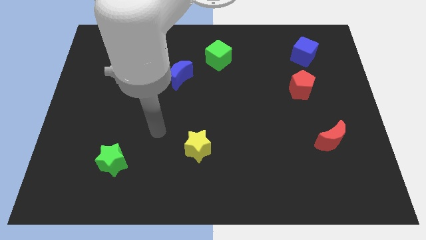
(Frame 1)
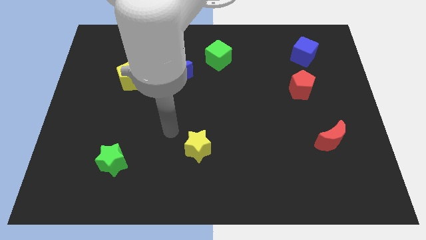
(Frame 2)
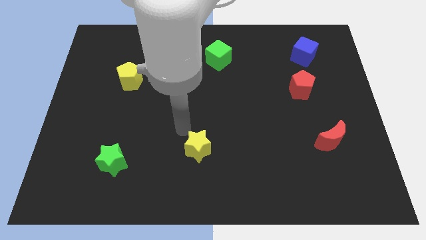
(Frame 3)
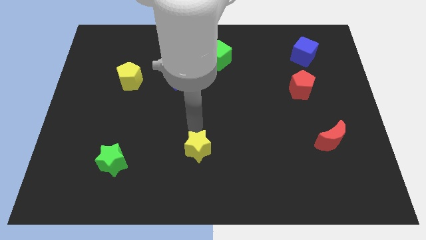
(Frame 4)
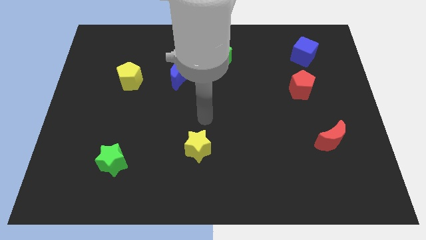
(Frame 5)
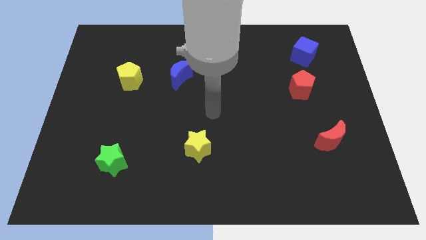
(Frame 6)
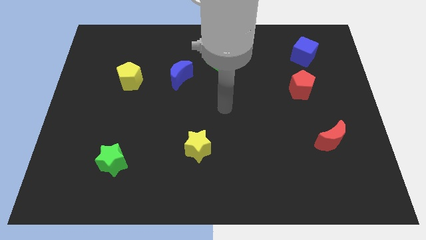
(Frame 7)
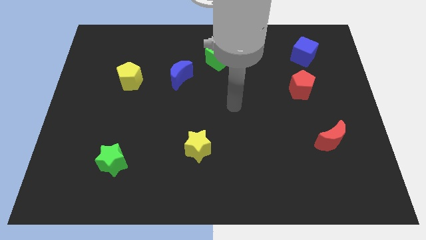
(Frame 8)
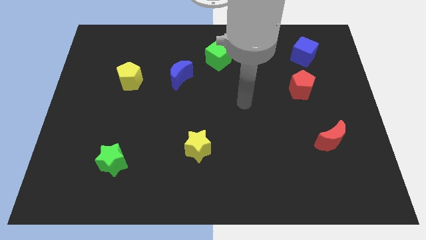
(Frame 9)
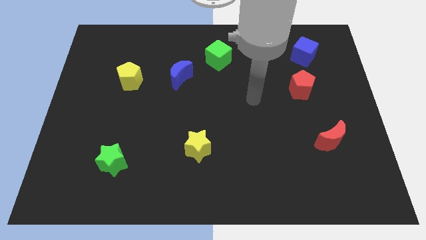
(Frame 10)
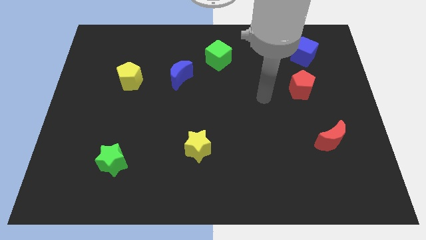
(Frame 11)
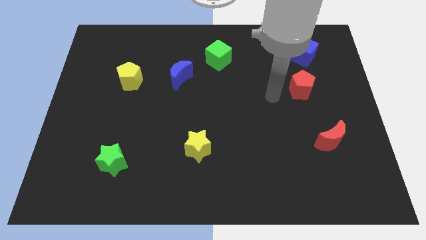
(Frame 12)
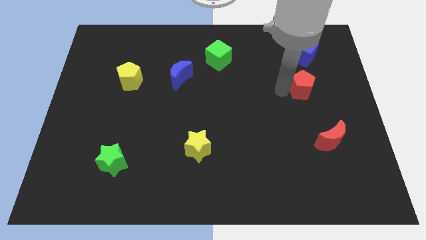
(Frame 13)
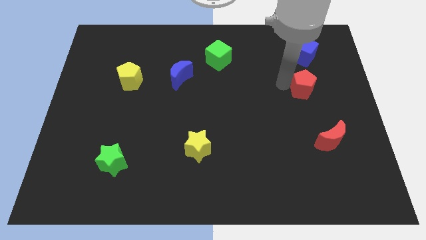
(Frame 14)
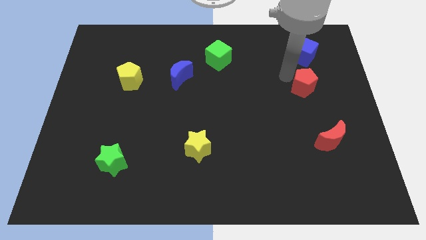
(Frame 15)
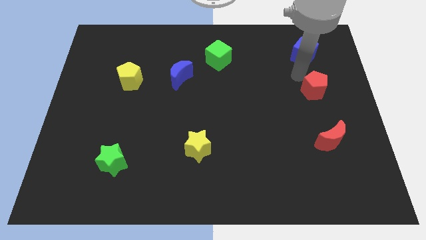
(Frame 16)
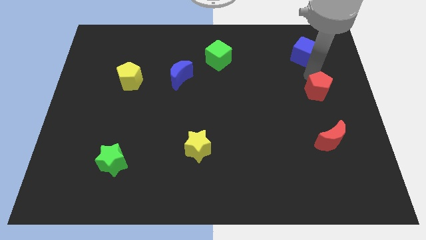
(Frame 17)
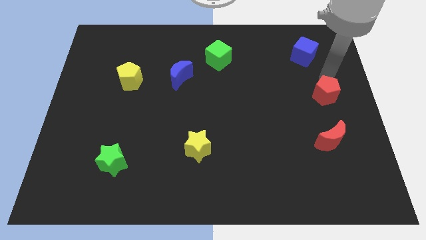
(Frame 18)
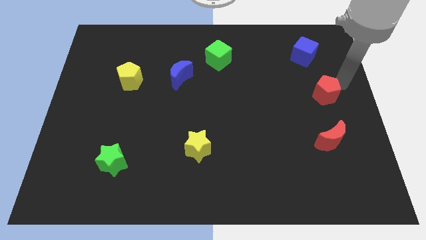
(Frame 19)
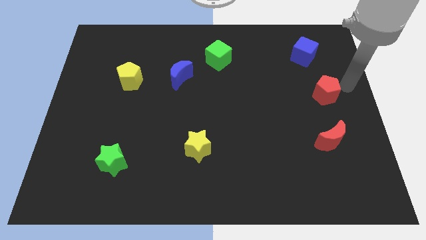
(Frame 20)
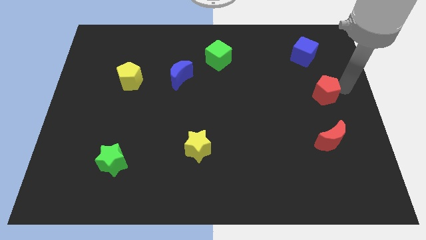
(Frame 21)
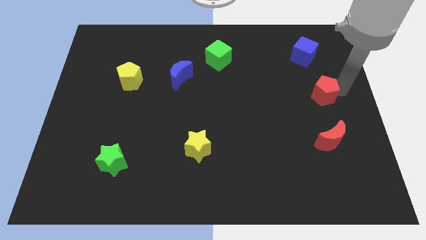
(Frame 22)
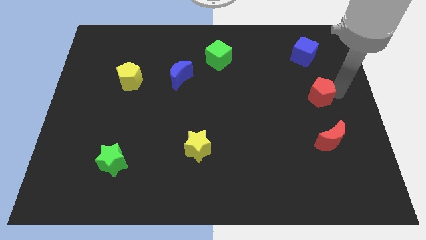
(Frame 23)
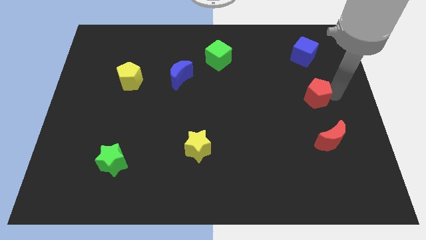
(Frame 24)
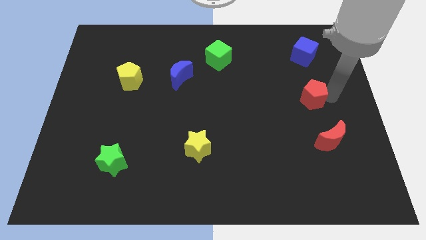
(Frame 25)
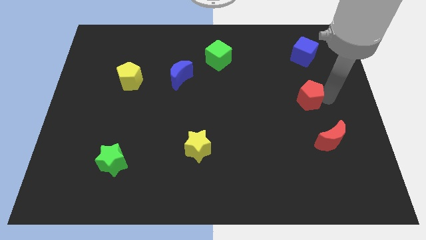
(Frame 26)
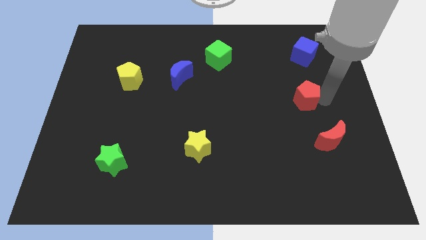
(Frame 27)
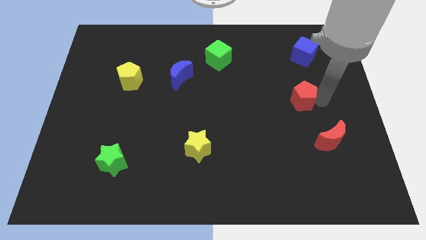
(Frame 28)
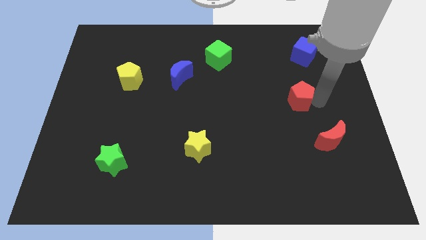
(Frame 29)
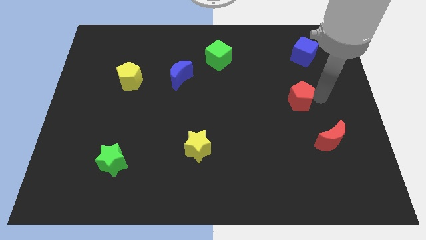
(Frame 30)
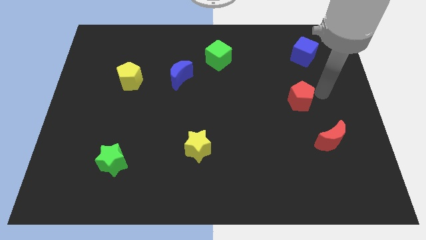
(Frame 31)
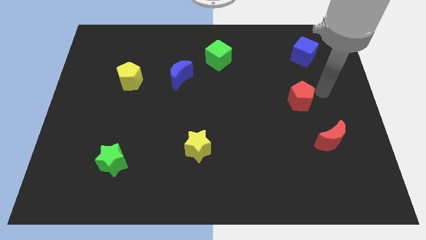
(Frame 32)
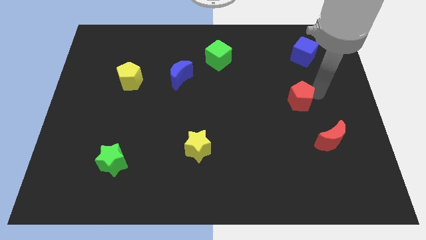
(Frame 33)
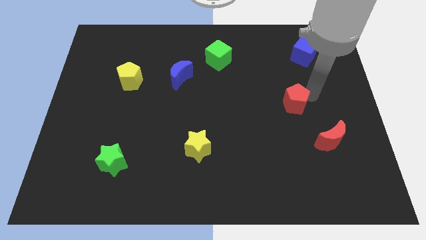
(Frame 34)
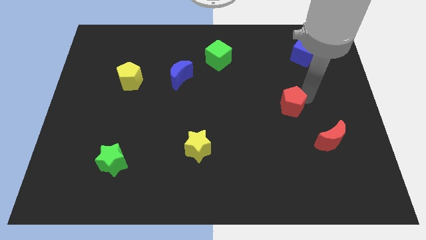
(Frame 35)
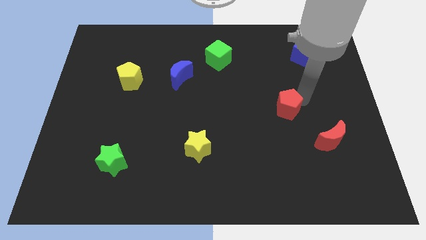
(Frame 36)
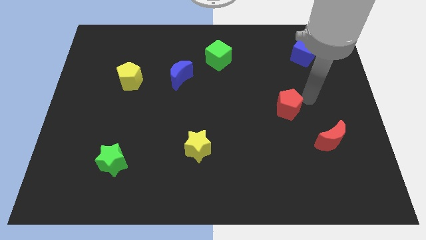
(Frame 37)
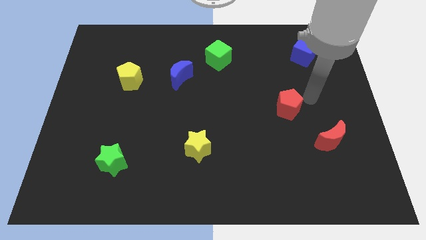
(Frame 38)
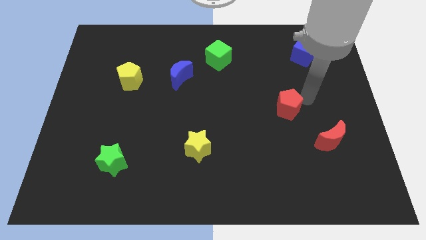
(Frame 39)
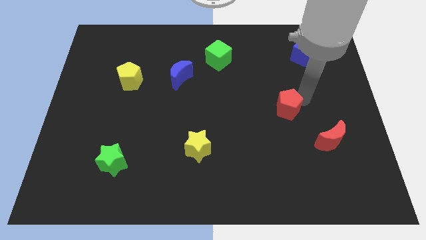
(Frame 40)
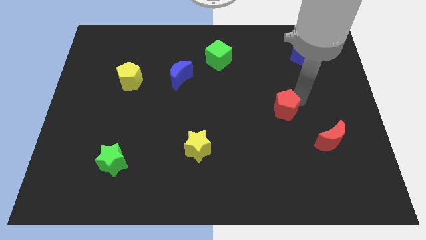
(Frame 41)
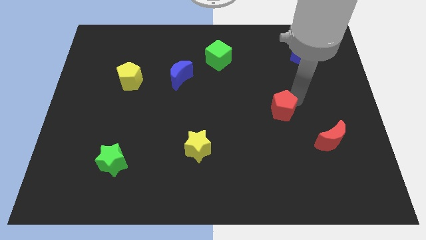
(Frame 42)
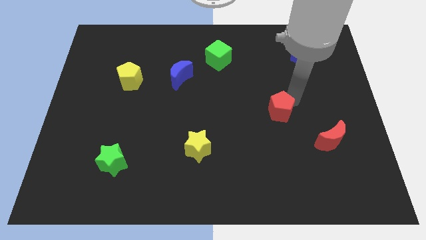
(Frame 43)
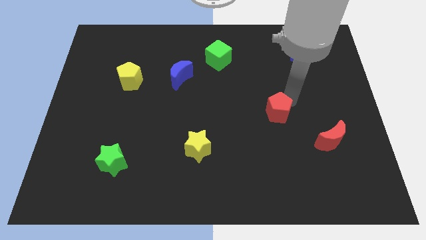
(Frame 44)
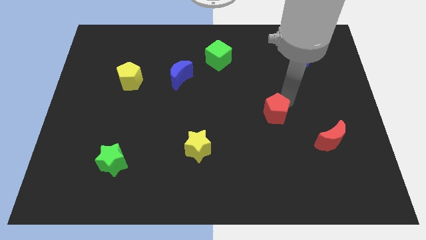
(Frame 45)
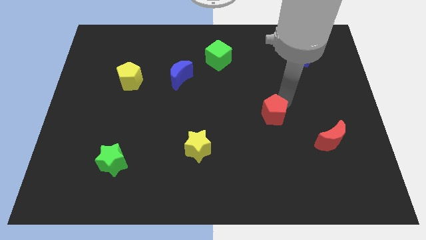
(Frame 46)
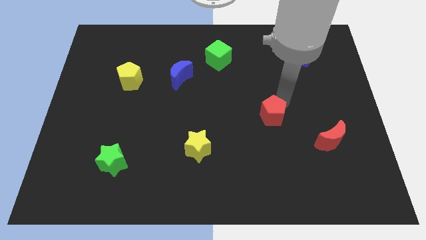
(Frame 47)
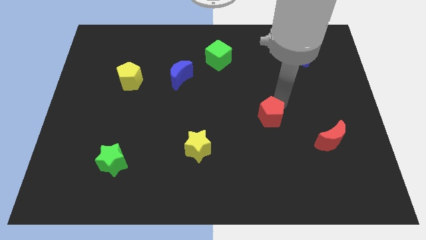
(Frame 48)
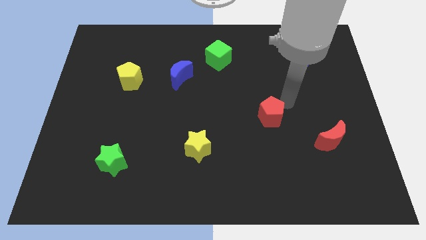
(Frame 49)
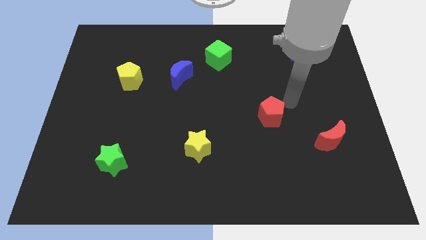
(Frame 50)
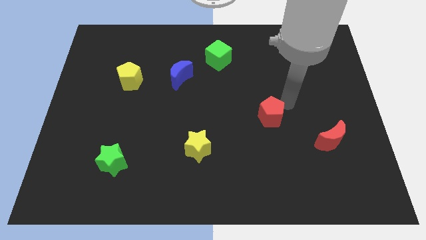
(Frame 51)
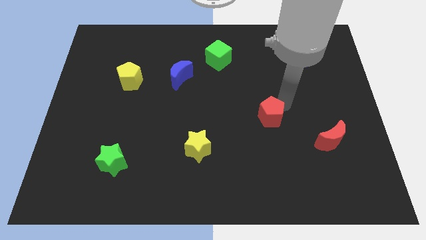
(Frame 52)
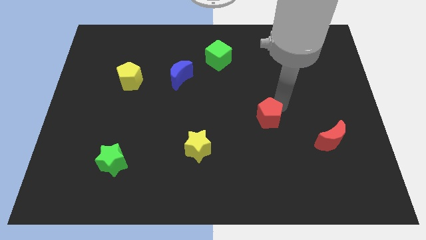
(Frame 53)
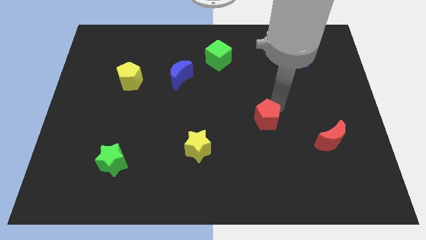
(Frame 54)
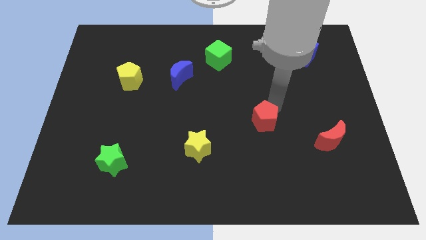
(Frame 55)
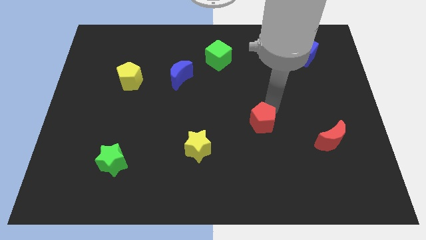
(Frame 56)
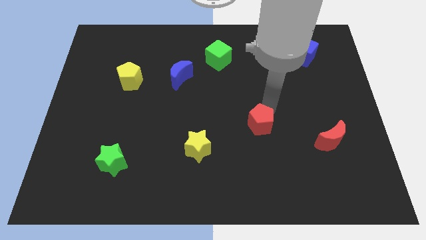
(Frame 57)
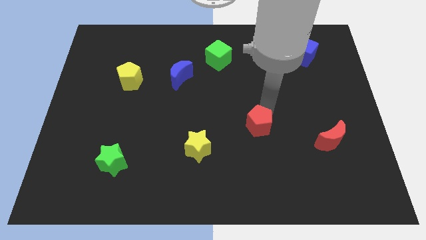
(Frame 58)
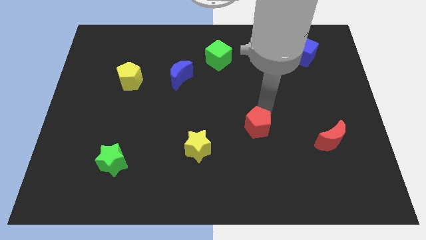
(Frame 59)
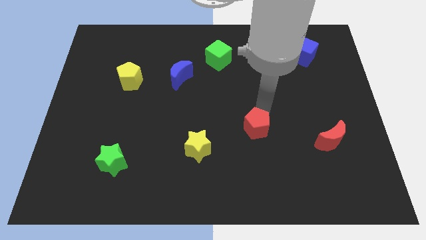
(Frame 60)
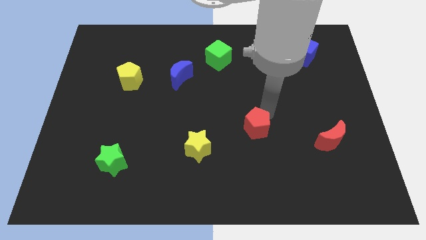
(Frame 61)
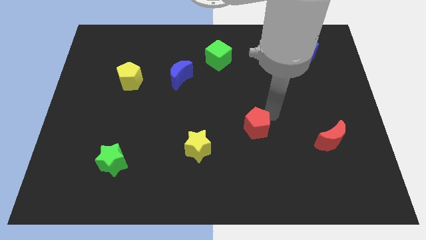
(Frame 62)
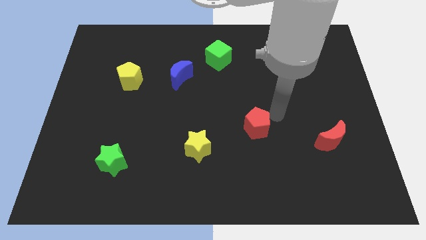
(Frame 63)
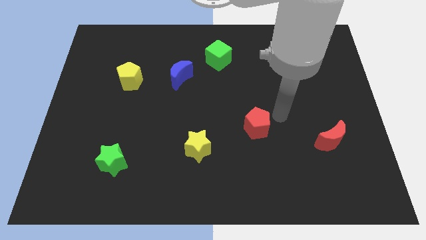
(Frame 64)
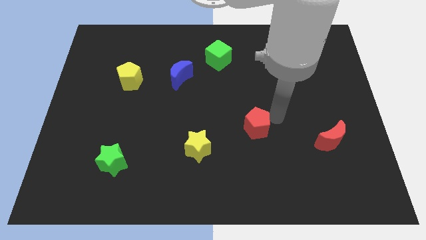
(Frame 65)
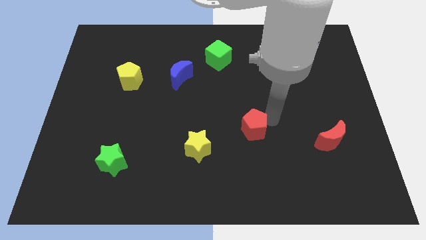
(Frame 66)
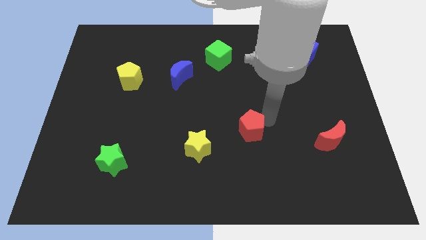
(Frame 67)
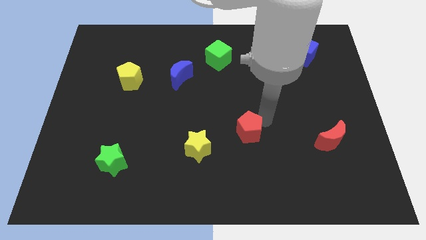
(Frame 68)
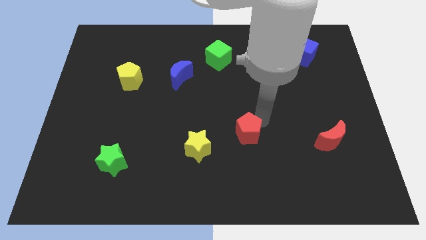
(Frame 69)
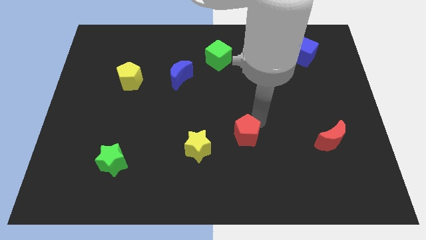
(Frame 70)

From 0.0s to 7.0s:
slide the red pentagon diagonally downwards and left

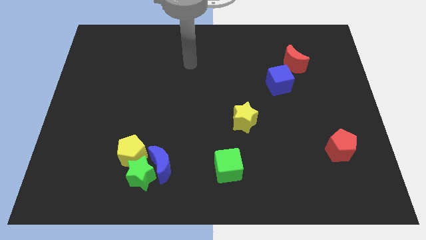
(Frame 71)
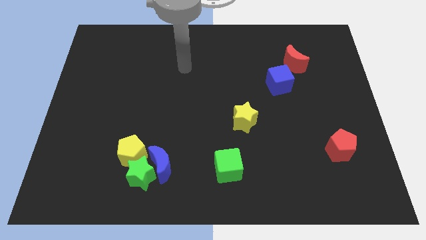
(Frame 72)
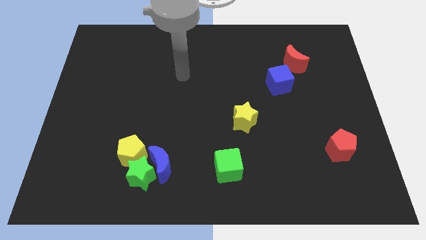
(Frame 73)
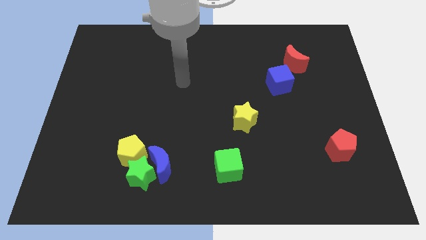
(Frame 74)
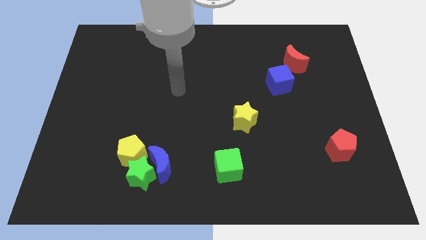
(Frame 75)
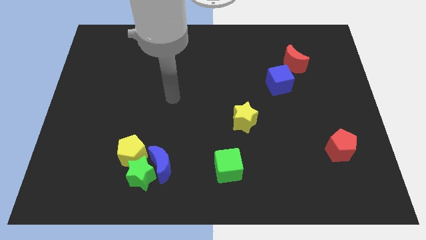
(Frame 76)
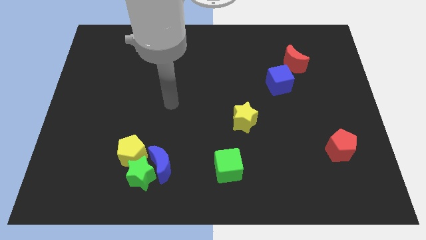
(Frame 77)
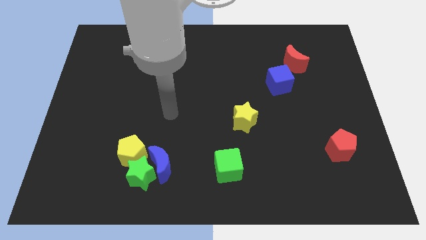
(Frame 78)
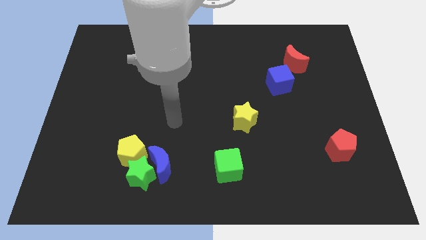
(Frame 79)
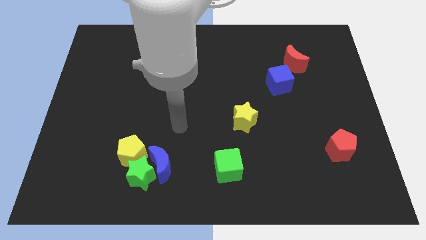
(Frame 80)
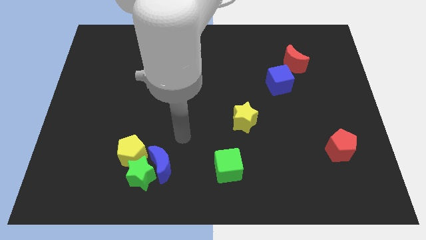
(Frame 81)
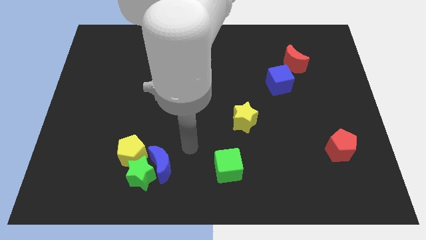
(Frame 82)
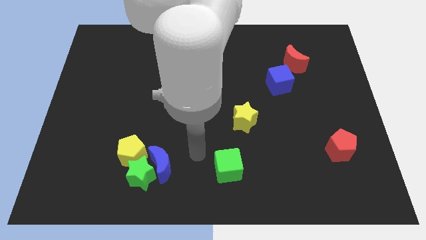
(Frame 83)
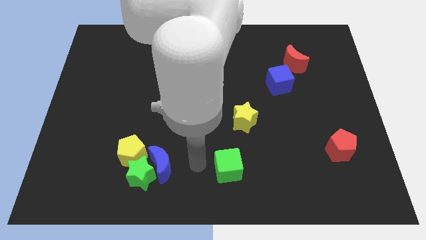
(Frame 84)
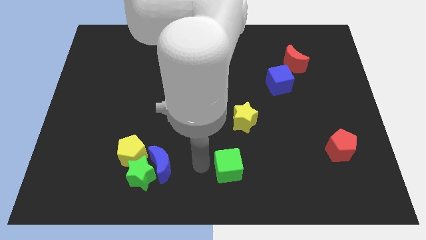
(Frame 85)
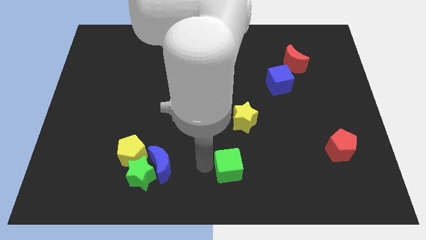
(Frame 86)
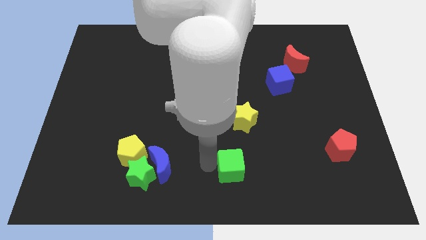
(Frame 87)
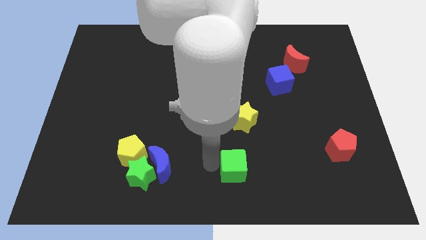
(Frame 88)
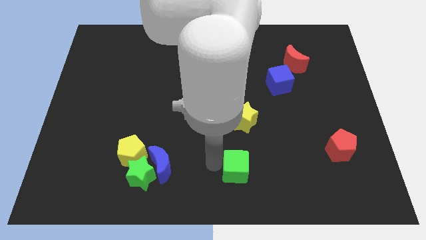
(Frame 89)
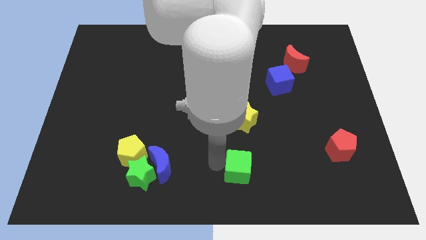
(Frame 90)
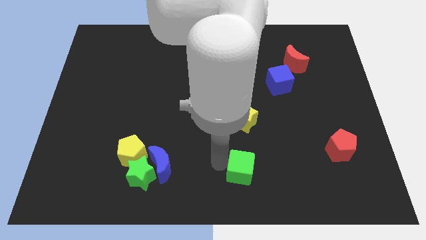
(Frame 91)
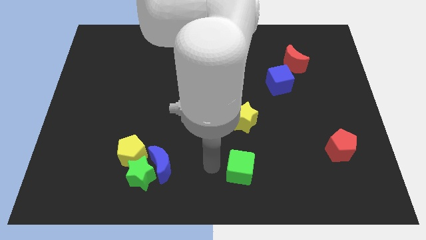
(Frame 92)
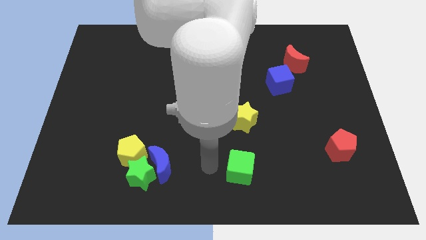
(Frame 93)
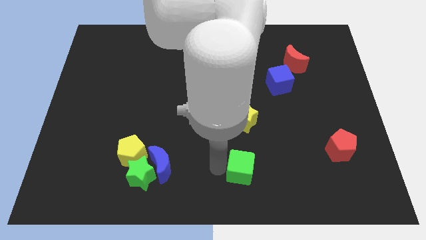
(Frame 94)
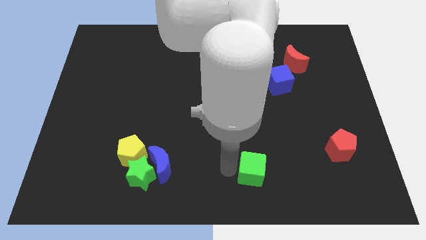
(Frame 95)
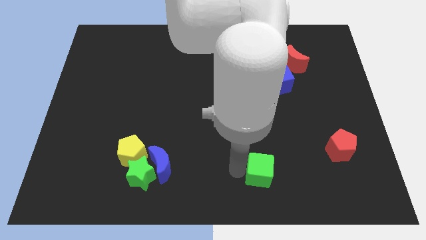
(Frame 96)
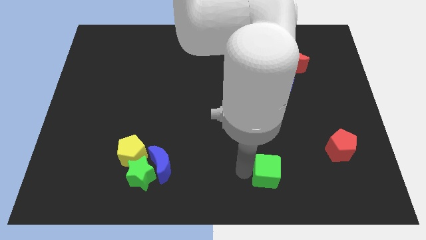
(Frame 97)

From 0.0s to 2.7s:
slightly move the green cube right
